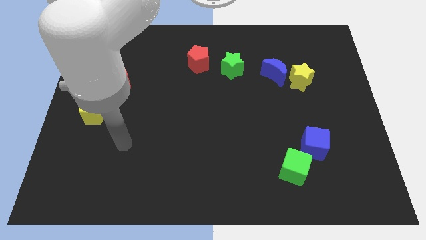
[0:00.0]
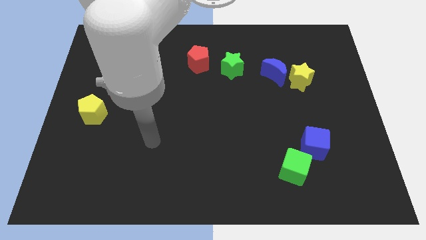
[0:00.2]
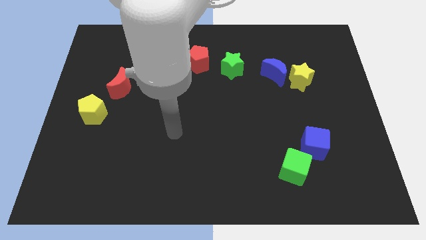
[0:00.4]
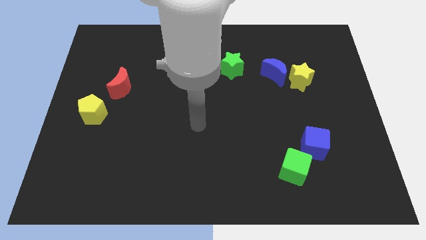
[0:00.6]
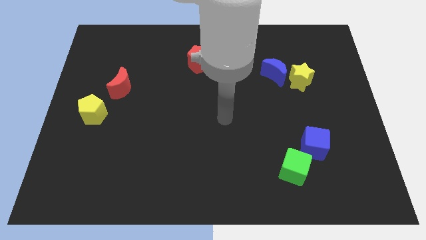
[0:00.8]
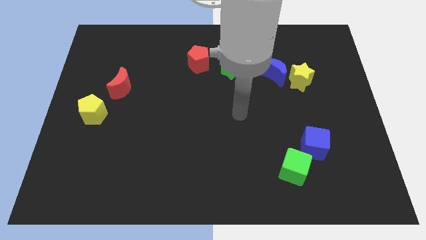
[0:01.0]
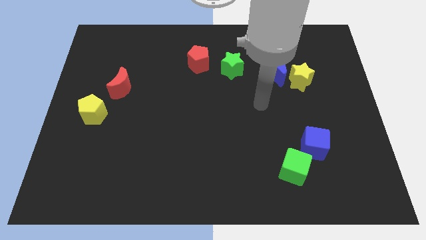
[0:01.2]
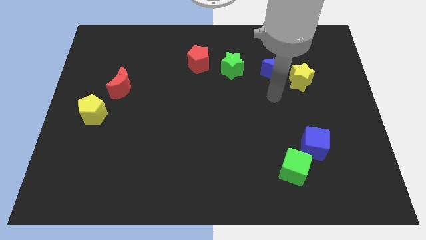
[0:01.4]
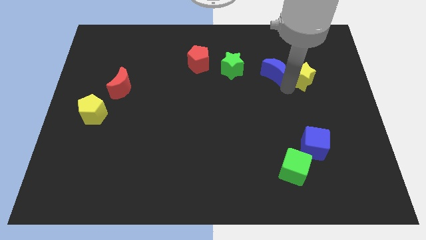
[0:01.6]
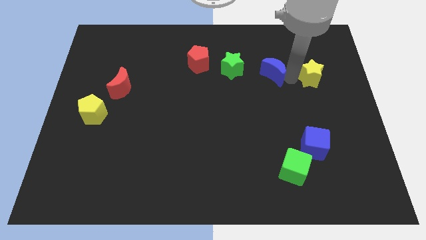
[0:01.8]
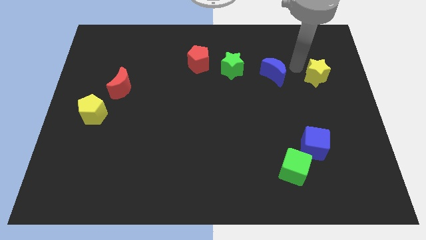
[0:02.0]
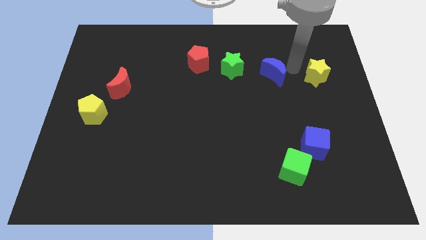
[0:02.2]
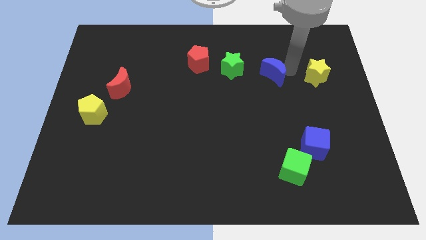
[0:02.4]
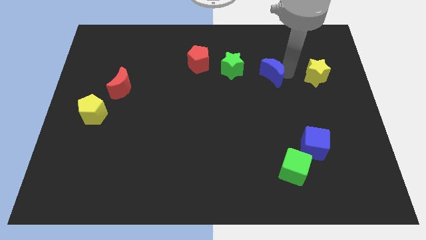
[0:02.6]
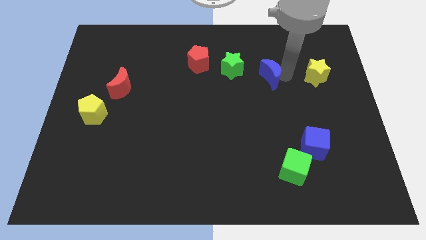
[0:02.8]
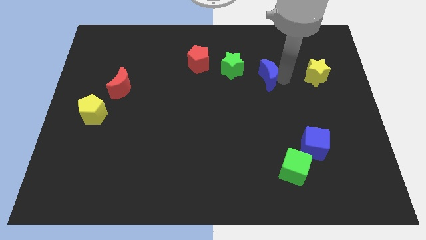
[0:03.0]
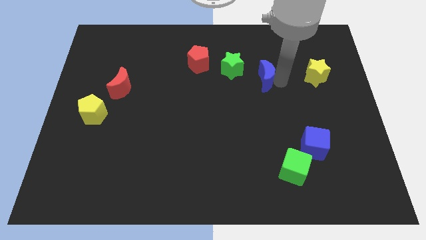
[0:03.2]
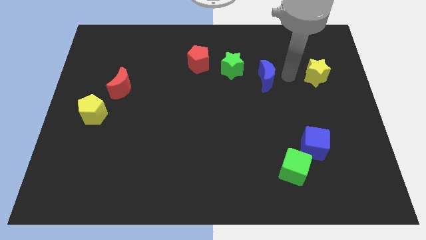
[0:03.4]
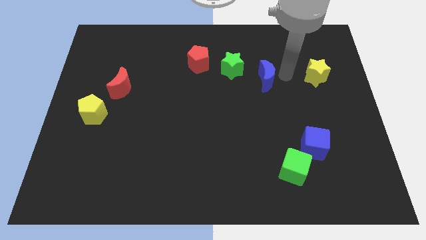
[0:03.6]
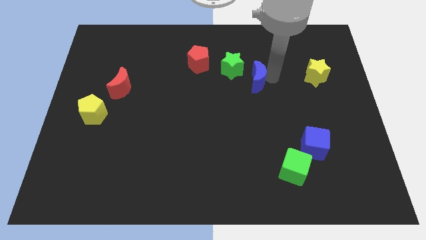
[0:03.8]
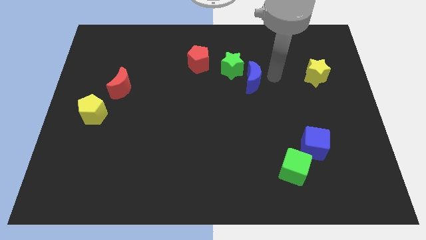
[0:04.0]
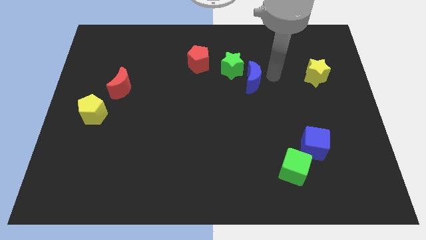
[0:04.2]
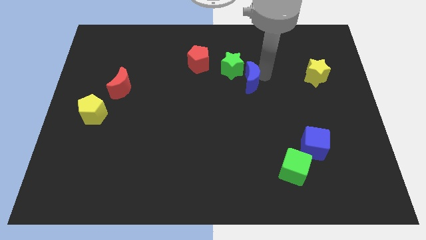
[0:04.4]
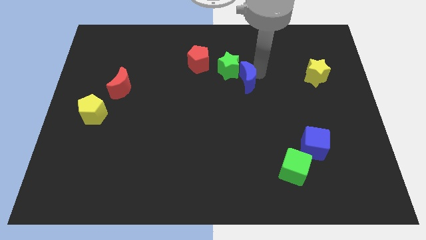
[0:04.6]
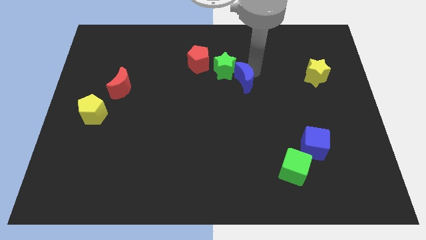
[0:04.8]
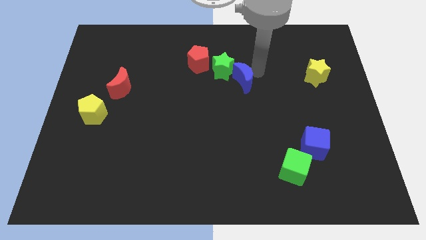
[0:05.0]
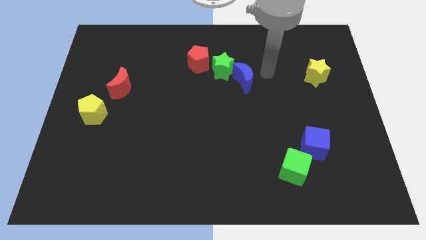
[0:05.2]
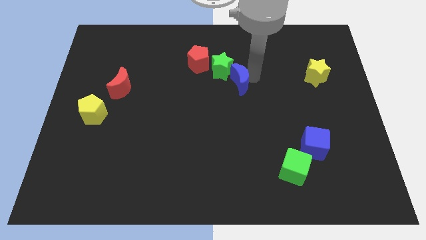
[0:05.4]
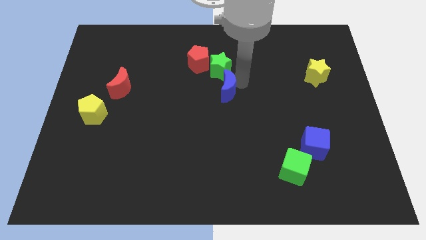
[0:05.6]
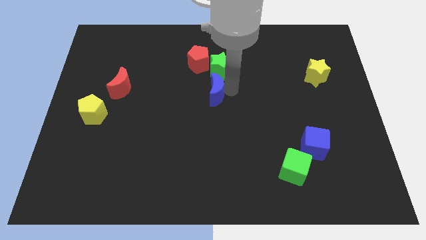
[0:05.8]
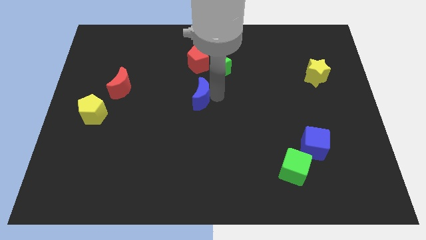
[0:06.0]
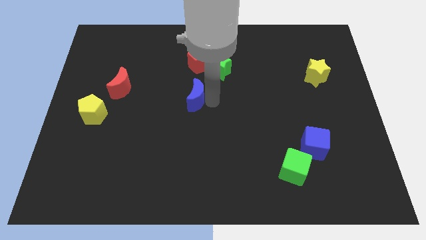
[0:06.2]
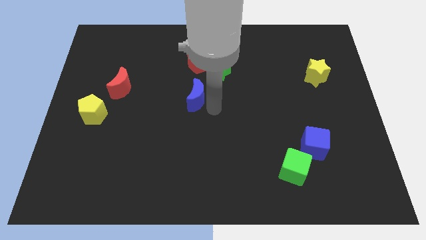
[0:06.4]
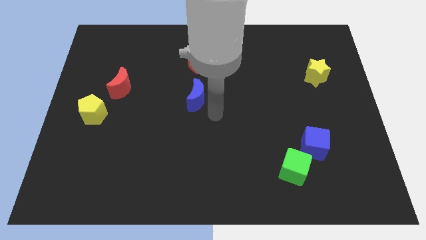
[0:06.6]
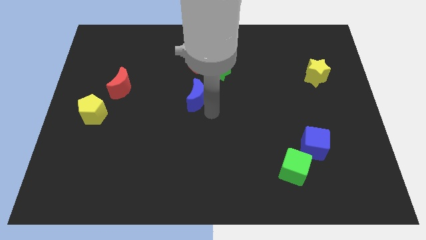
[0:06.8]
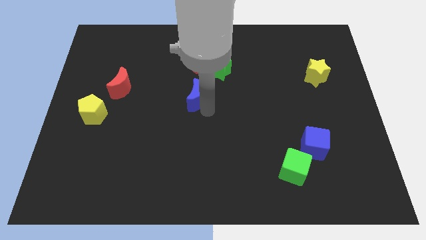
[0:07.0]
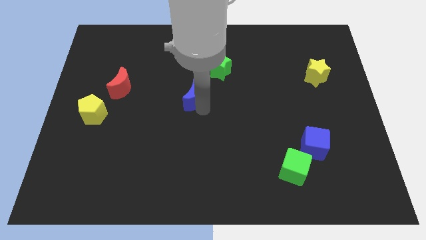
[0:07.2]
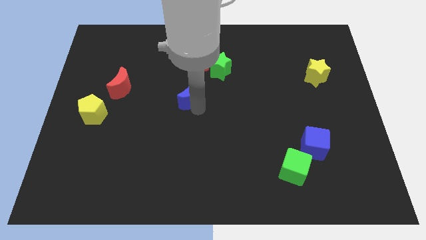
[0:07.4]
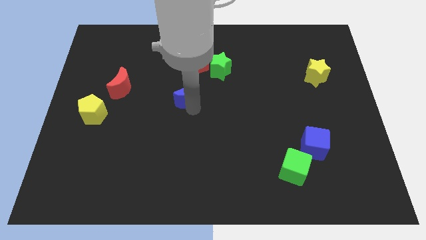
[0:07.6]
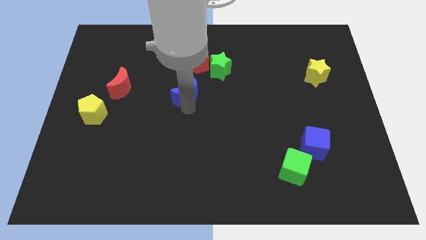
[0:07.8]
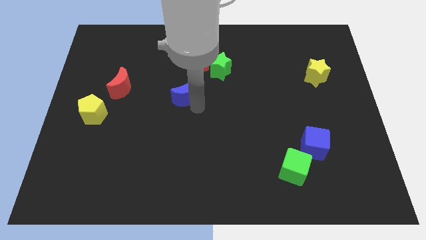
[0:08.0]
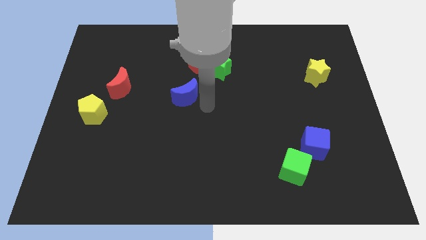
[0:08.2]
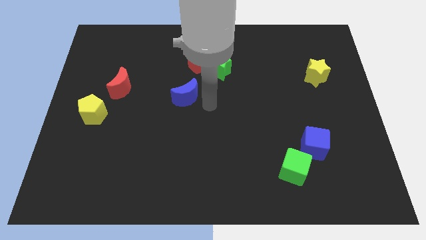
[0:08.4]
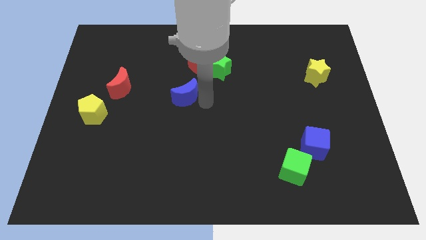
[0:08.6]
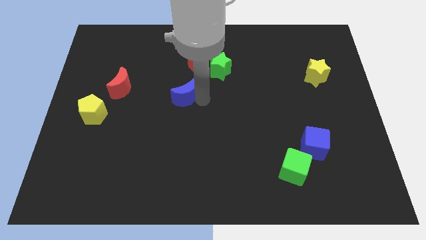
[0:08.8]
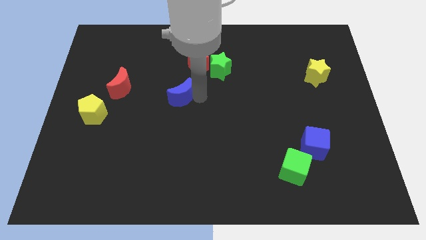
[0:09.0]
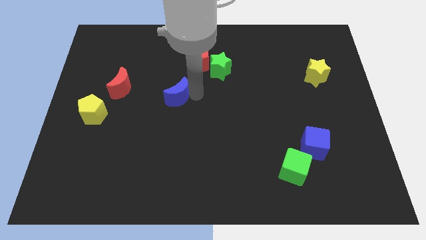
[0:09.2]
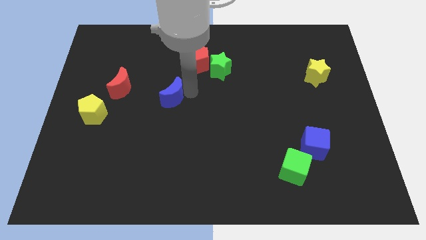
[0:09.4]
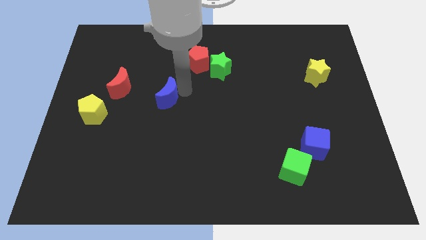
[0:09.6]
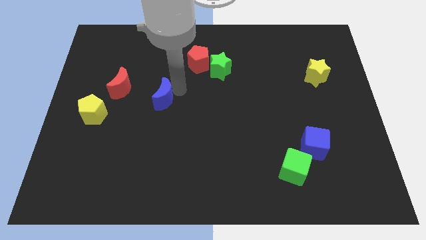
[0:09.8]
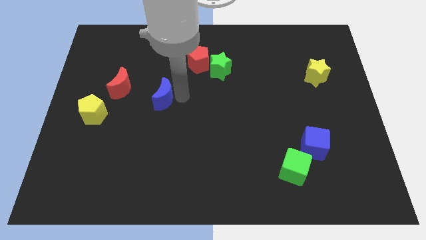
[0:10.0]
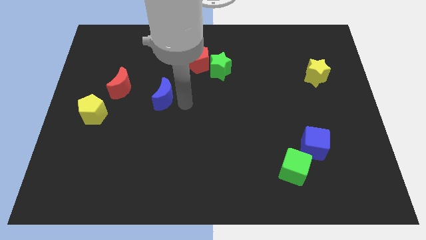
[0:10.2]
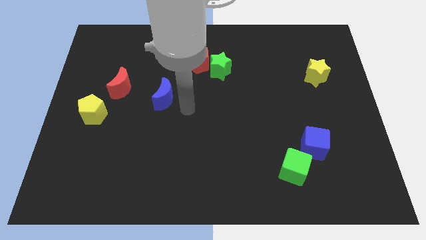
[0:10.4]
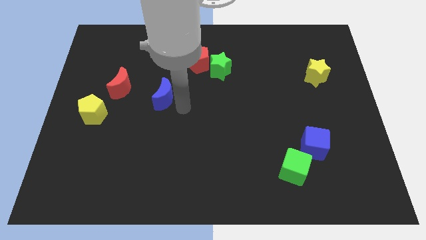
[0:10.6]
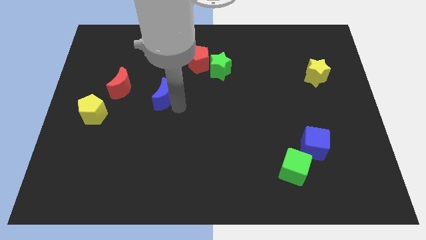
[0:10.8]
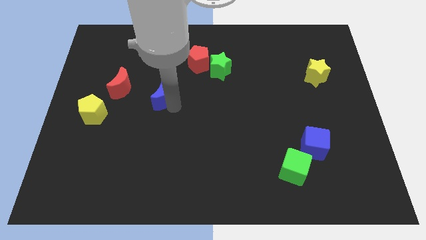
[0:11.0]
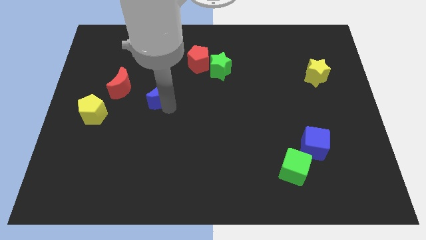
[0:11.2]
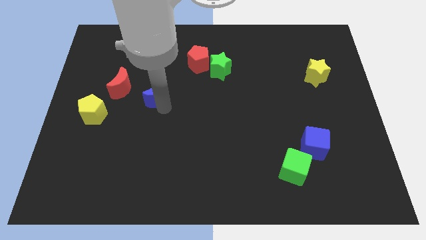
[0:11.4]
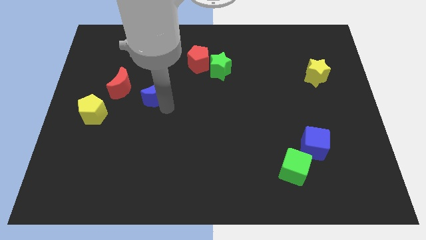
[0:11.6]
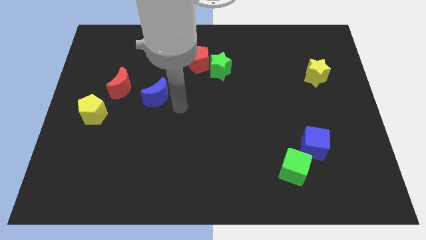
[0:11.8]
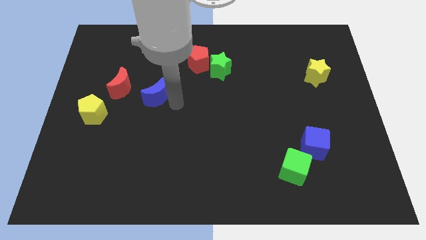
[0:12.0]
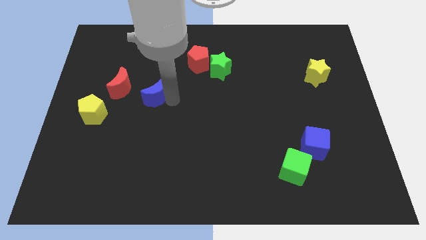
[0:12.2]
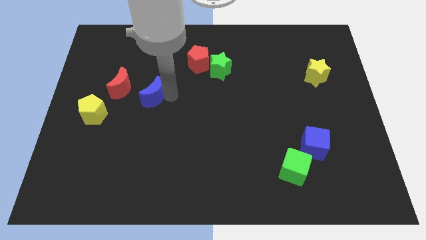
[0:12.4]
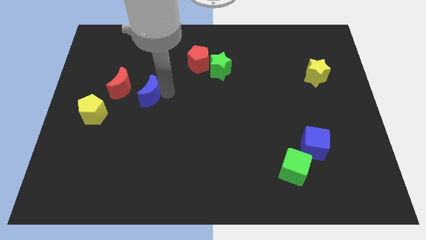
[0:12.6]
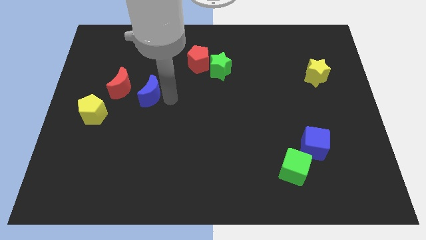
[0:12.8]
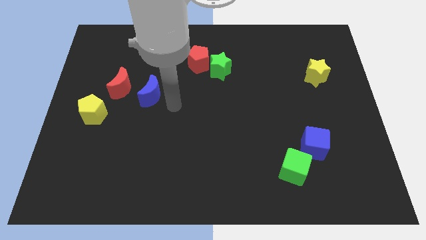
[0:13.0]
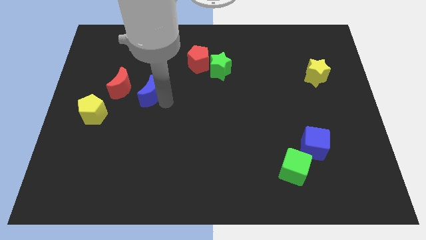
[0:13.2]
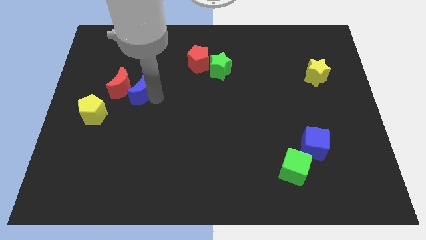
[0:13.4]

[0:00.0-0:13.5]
push the blue moon close to the red moon

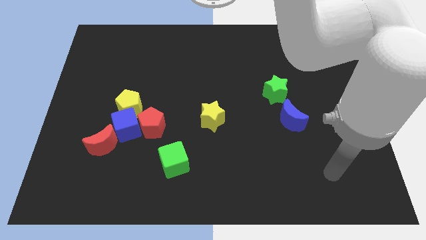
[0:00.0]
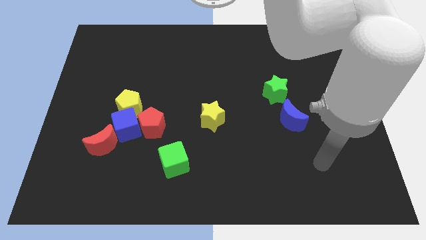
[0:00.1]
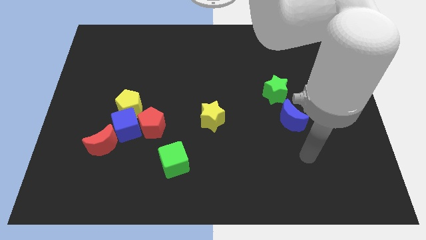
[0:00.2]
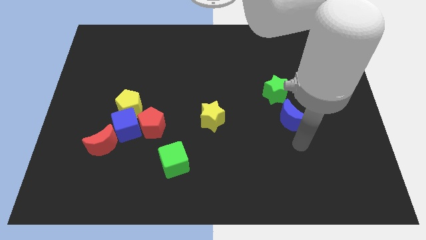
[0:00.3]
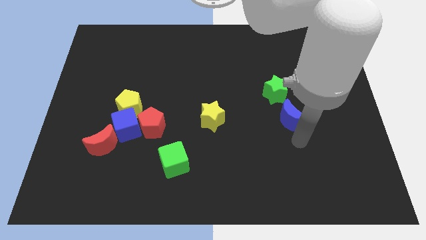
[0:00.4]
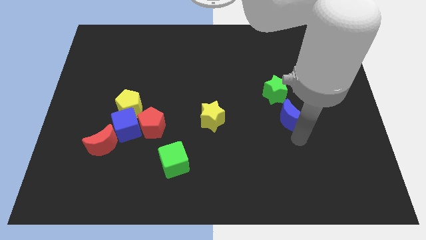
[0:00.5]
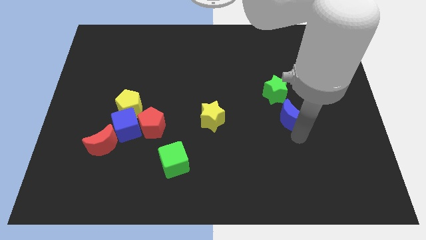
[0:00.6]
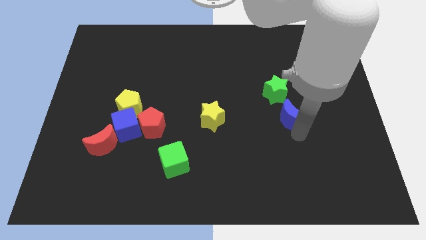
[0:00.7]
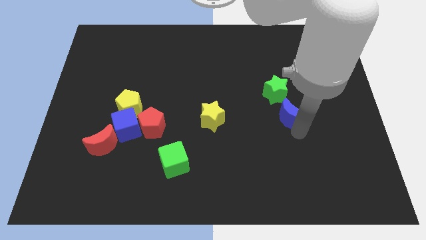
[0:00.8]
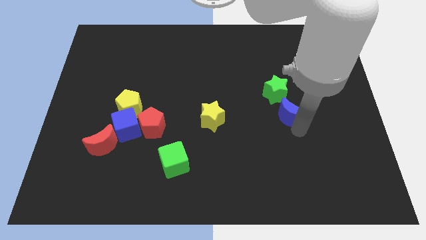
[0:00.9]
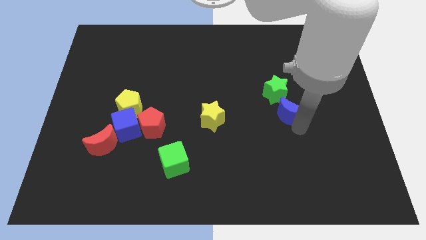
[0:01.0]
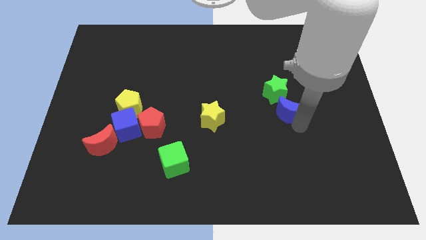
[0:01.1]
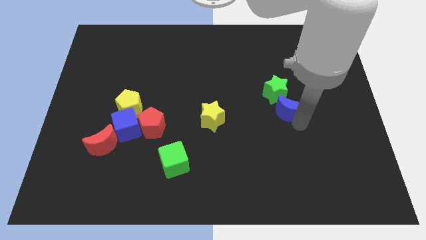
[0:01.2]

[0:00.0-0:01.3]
move the blue moon towards the green star
